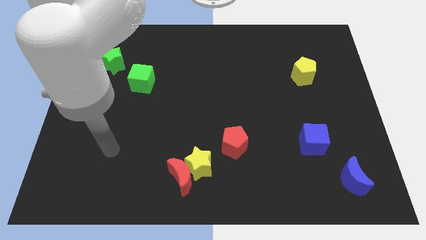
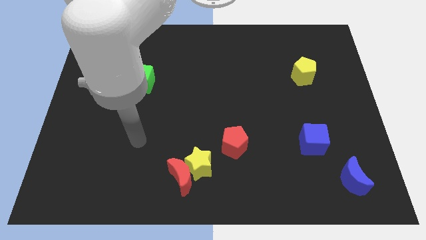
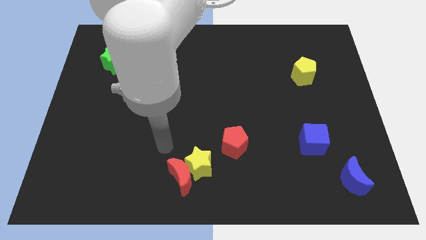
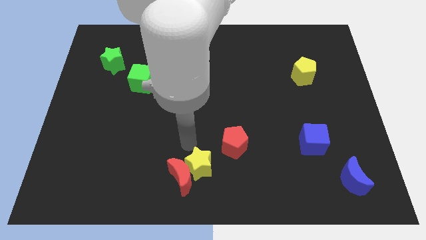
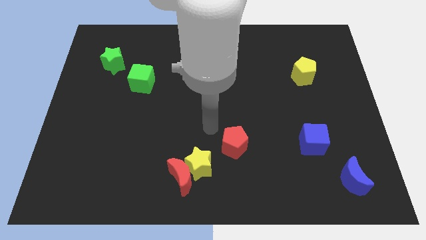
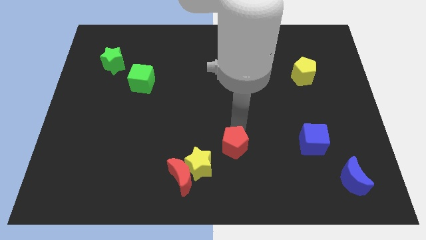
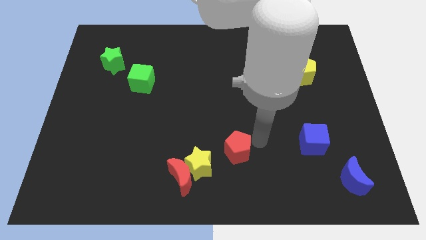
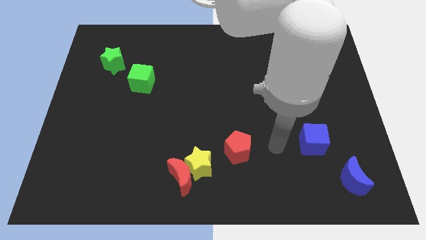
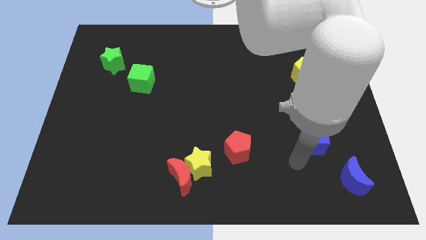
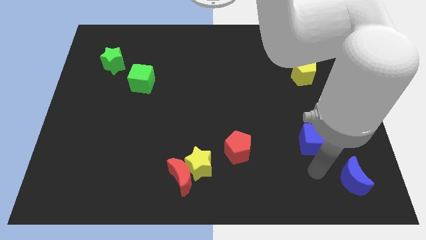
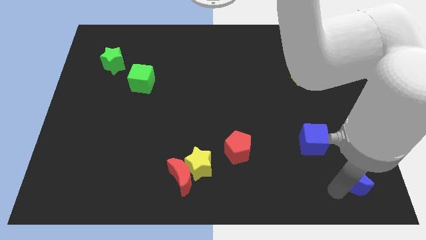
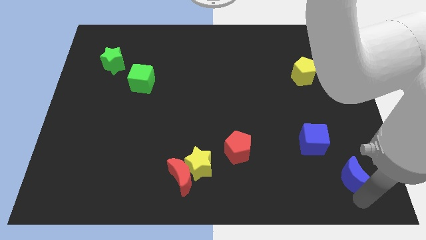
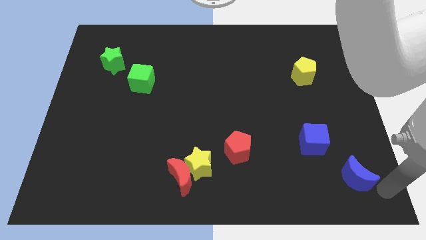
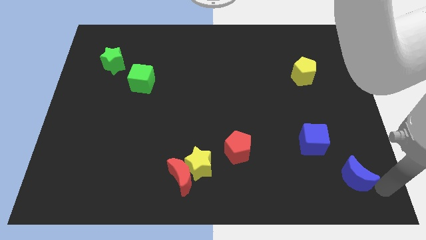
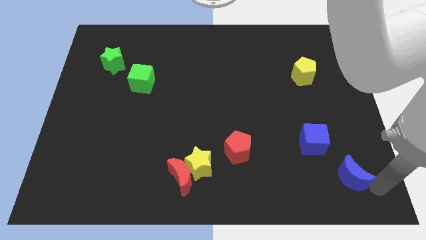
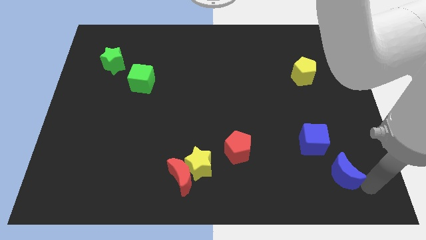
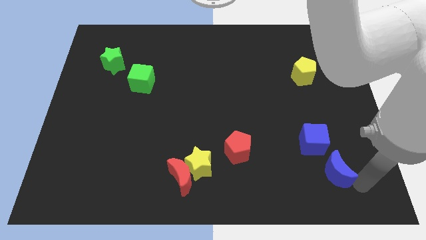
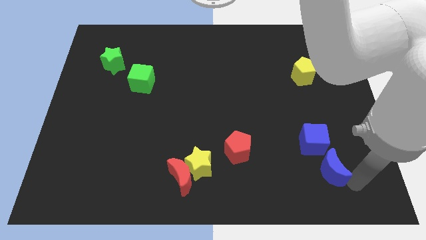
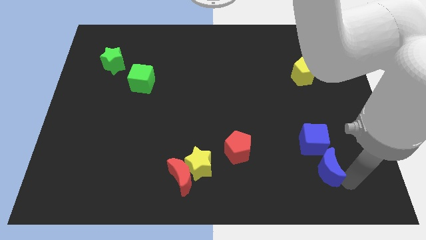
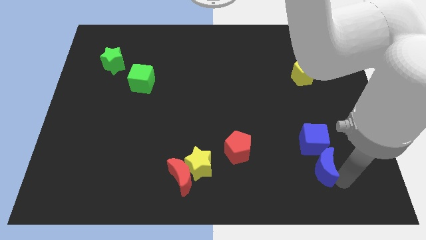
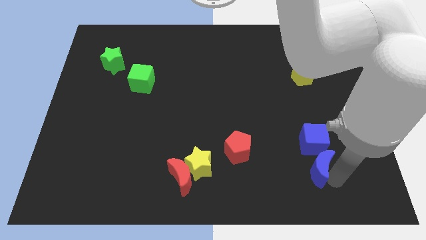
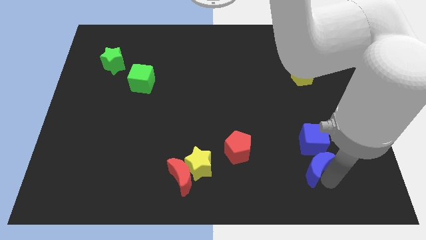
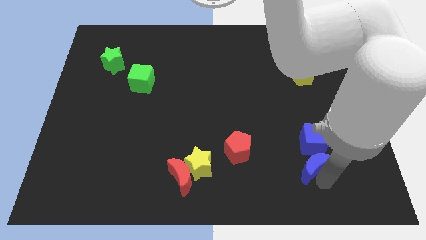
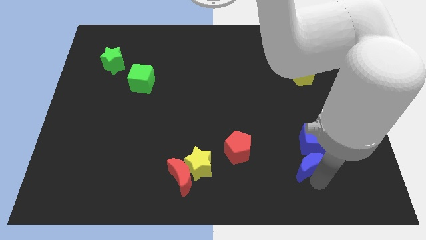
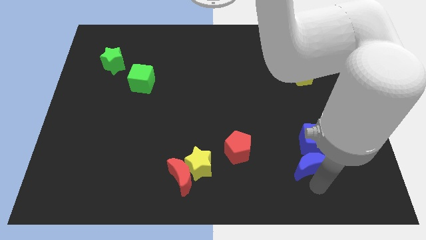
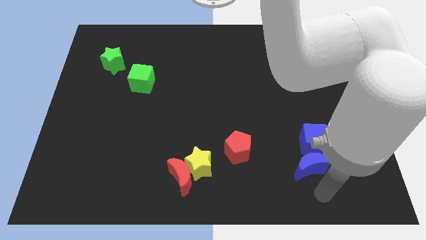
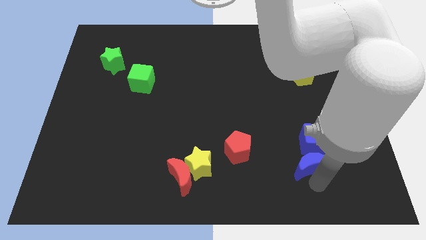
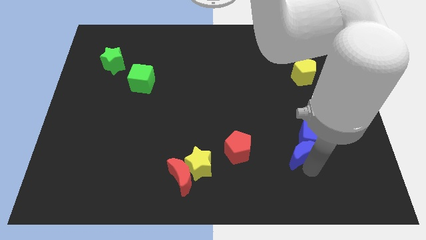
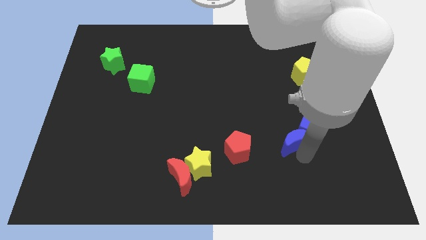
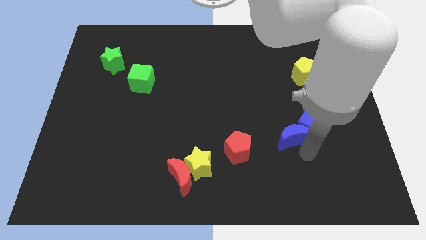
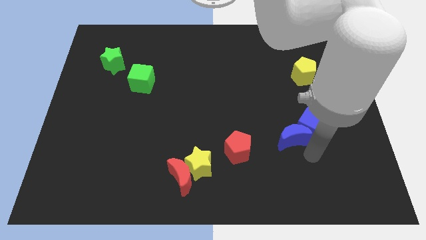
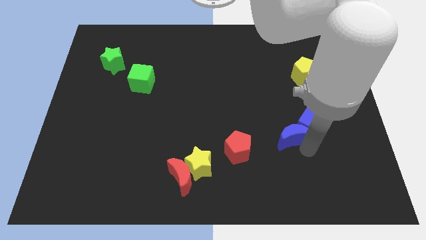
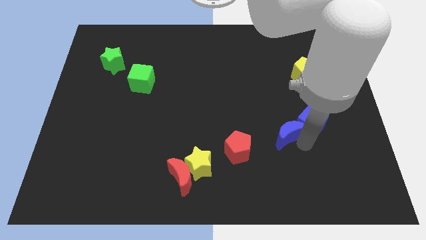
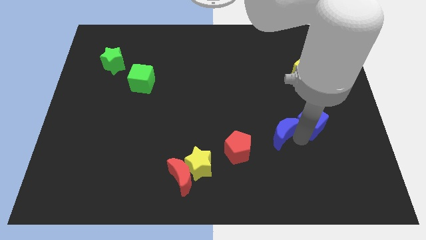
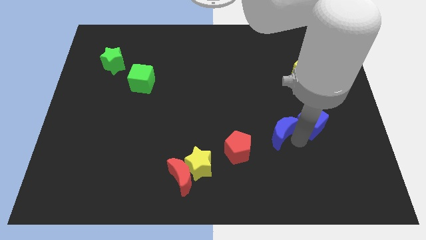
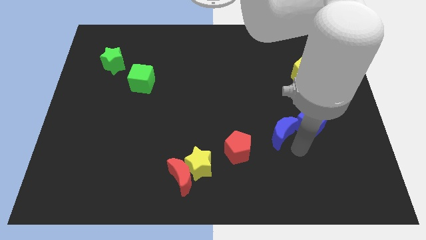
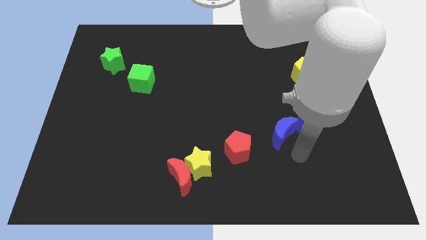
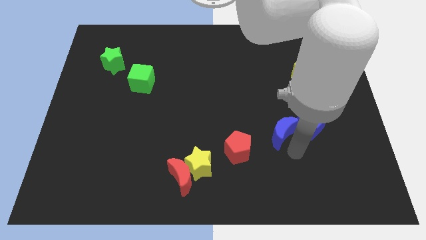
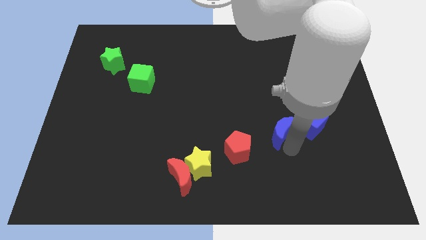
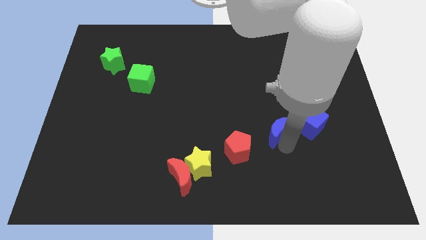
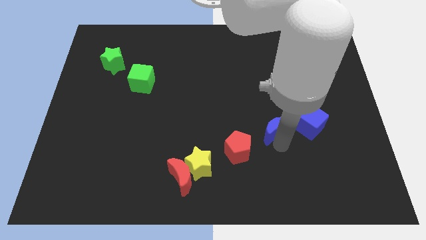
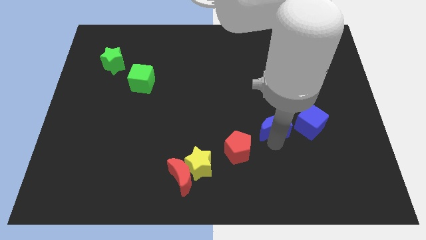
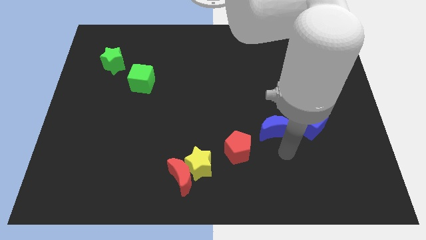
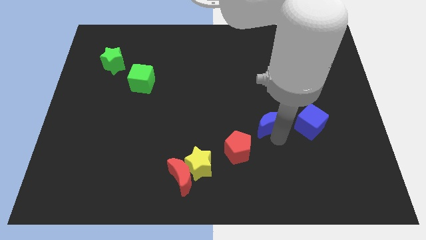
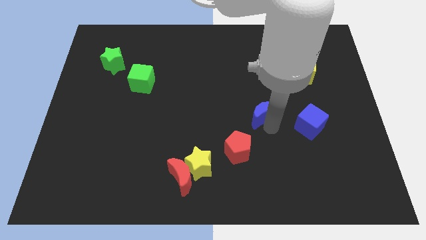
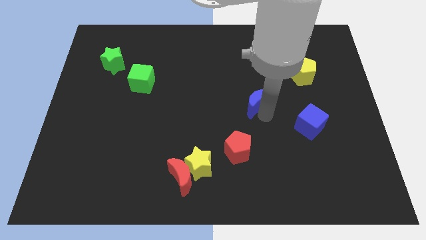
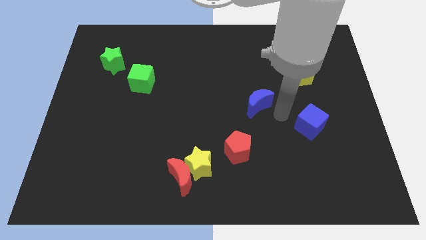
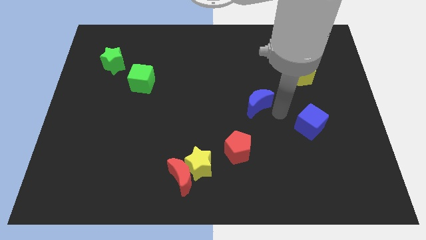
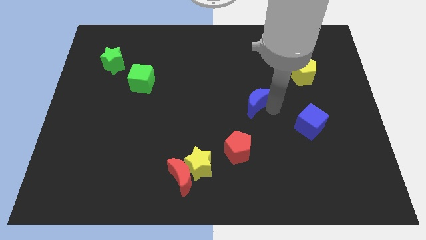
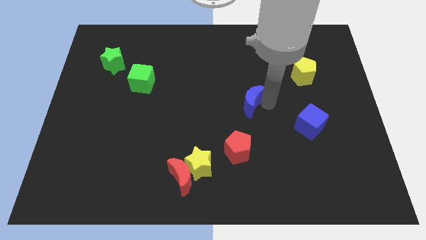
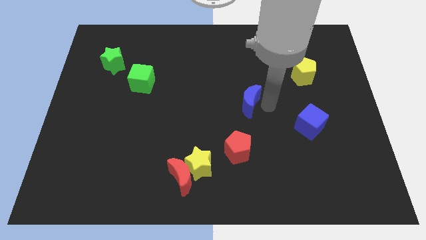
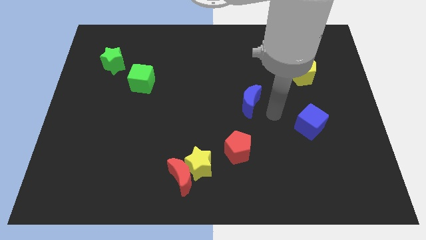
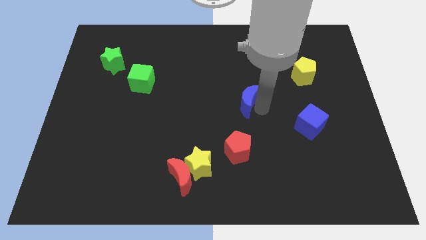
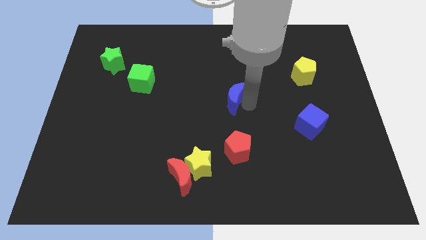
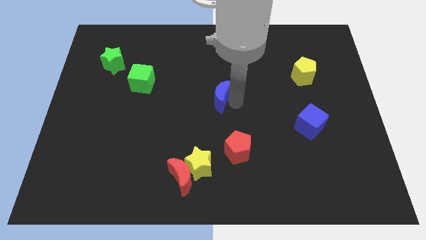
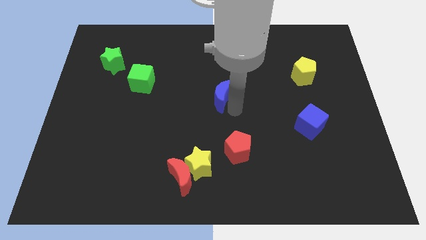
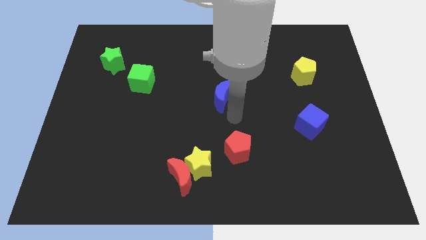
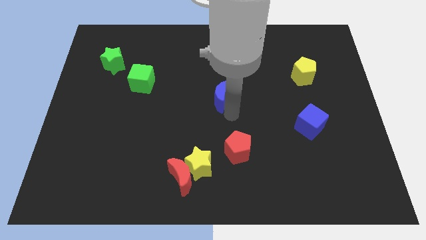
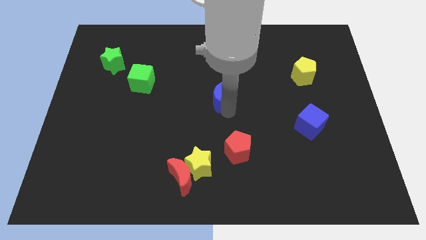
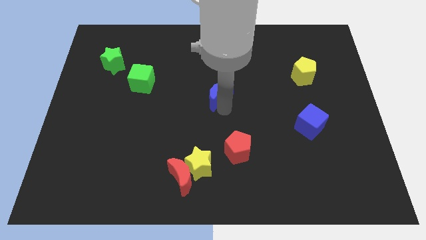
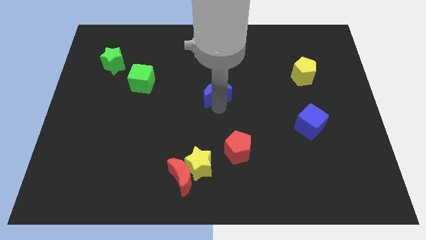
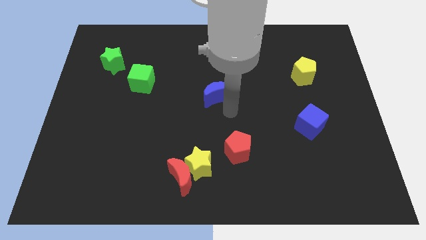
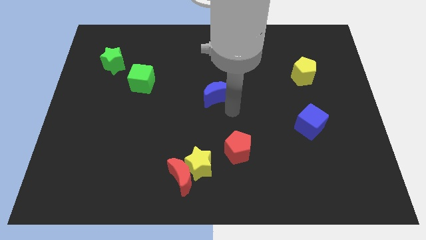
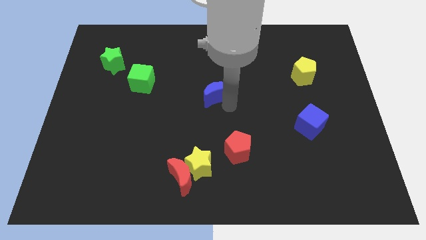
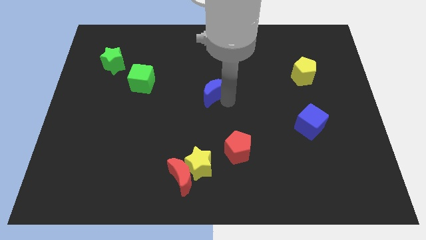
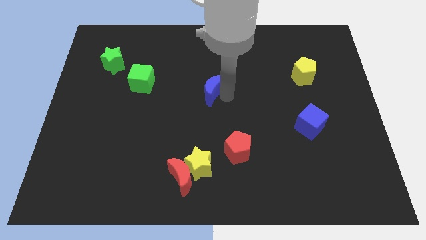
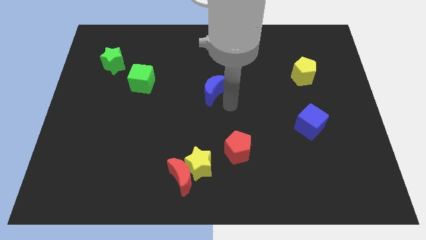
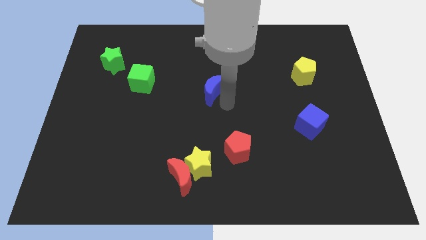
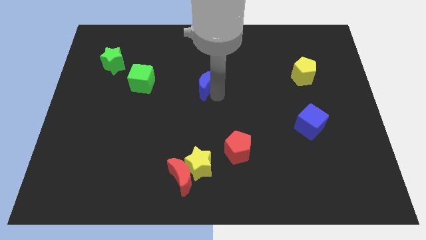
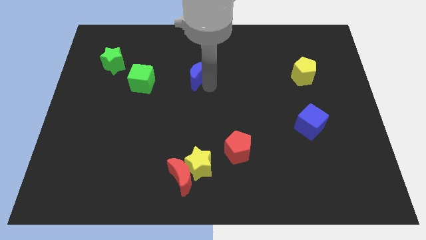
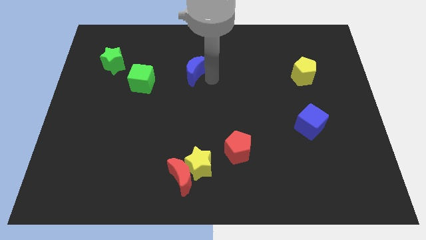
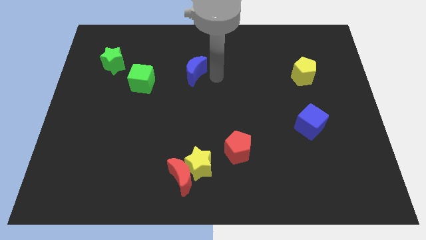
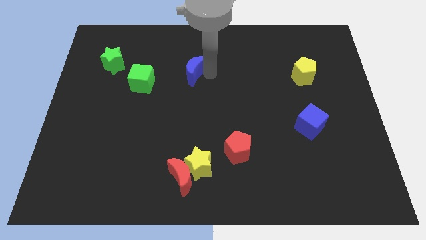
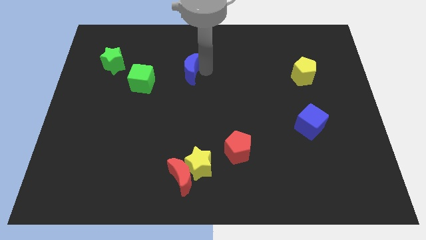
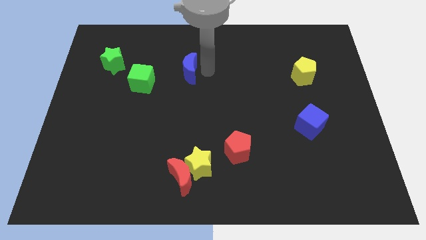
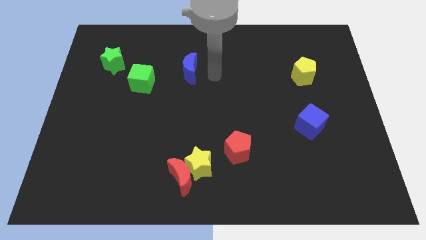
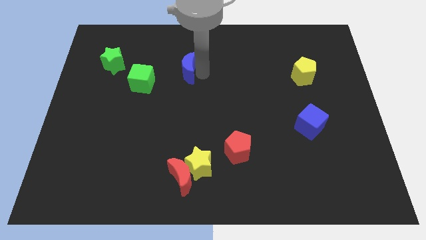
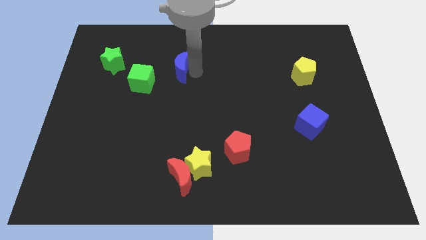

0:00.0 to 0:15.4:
put the blue moon to the top right side of the green cube
